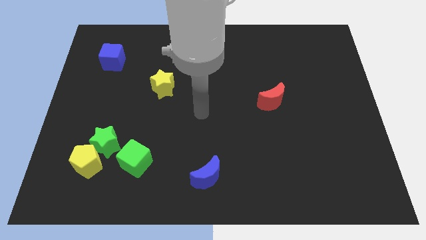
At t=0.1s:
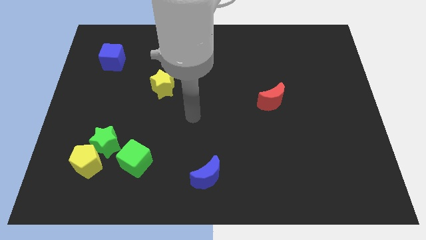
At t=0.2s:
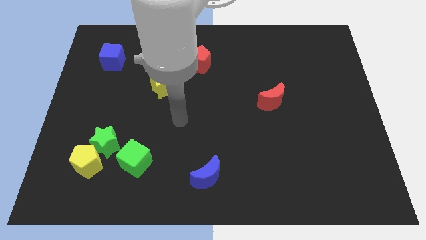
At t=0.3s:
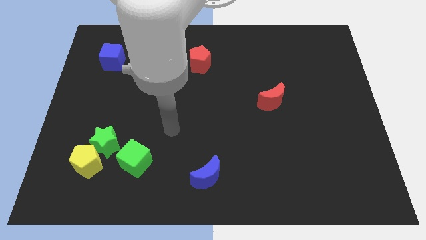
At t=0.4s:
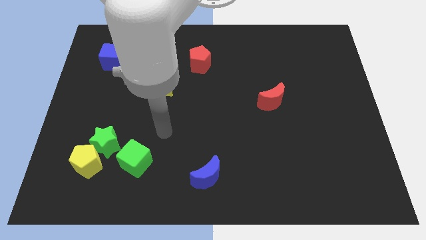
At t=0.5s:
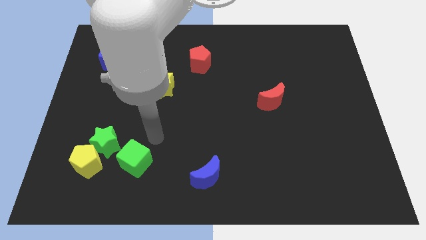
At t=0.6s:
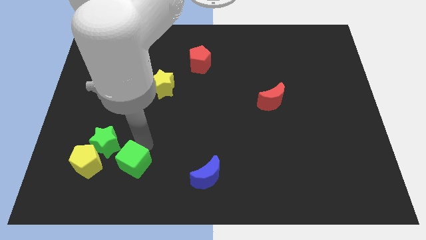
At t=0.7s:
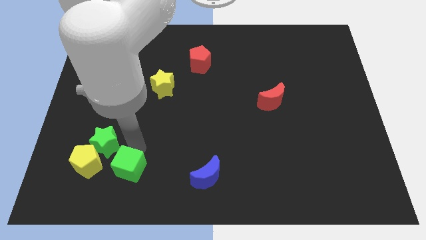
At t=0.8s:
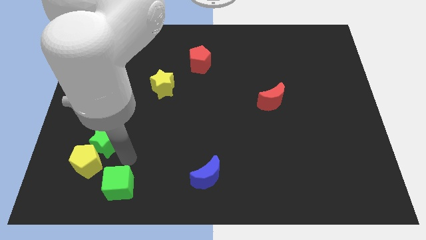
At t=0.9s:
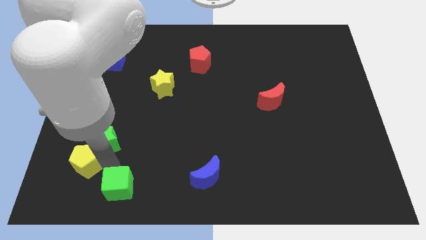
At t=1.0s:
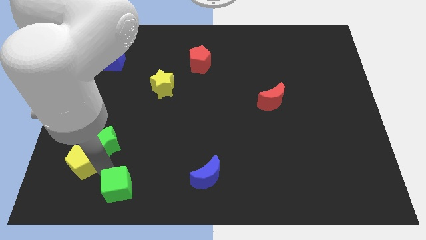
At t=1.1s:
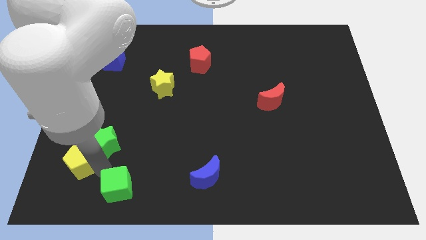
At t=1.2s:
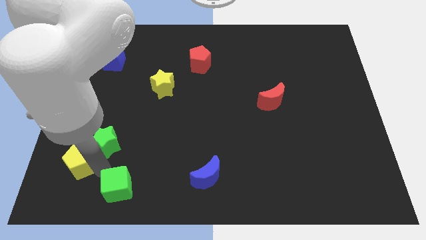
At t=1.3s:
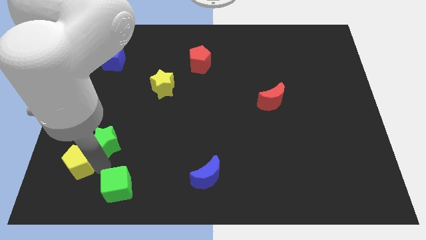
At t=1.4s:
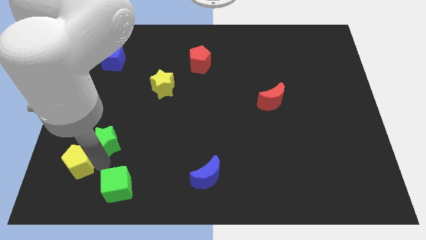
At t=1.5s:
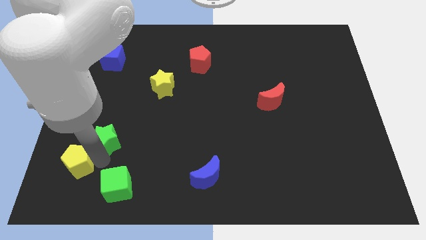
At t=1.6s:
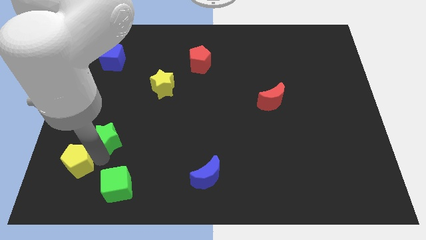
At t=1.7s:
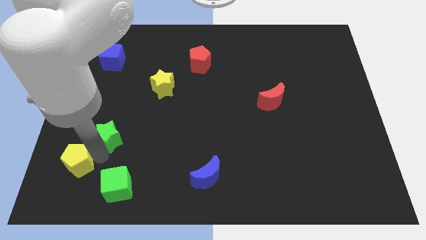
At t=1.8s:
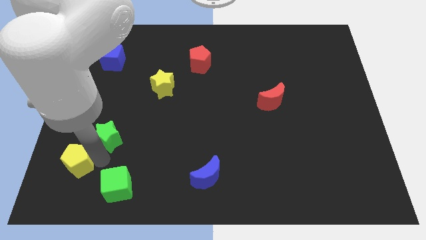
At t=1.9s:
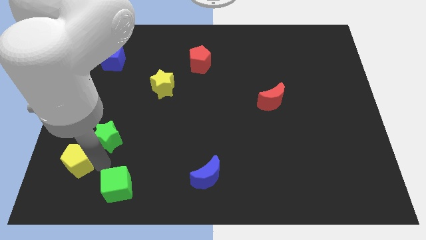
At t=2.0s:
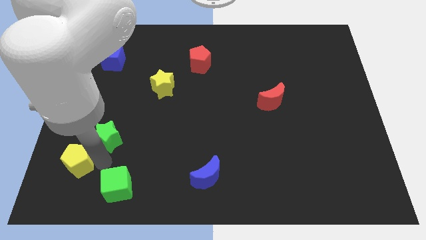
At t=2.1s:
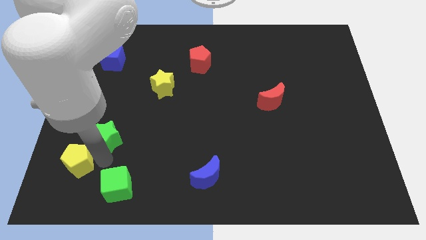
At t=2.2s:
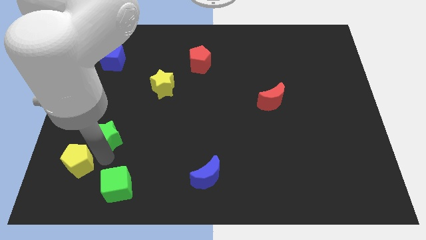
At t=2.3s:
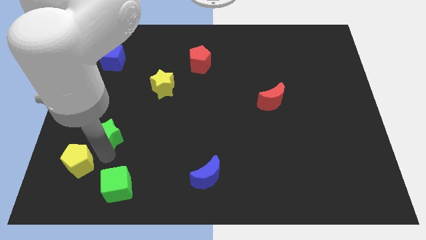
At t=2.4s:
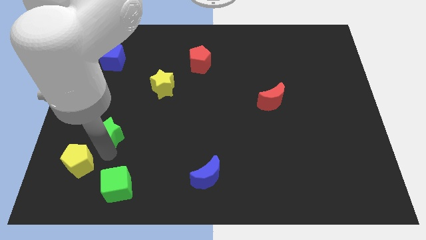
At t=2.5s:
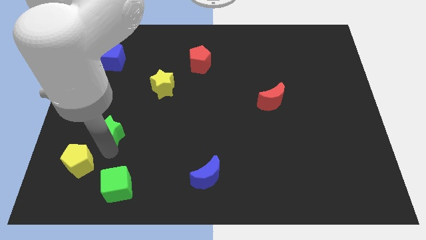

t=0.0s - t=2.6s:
pull the green star apart from the yellow pentagon and green cube

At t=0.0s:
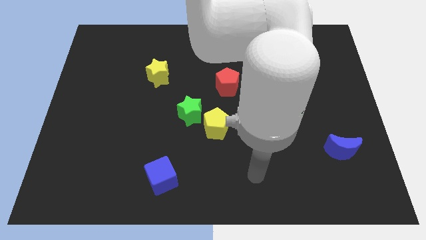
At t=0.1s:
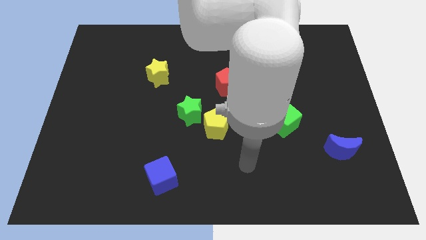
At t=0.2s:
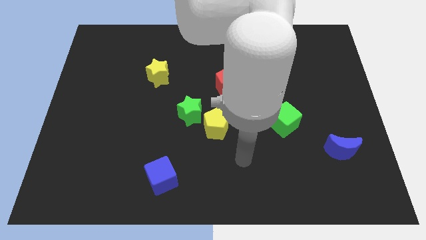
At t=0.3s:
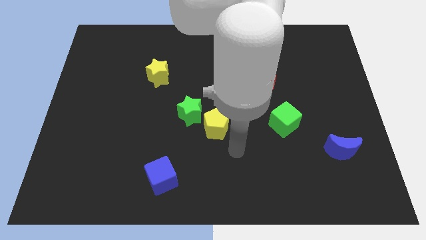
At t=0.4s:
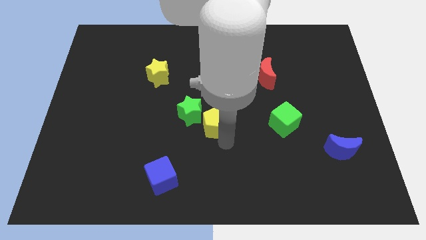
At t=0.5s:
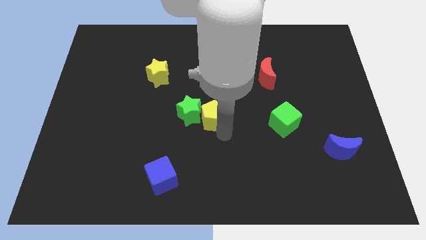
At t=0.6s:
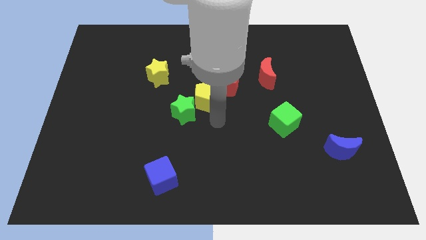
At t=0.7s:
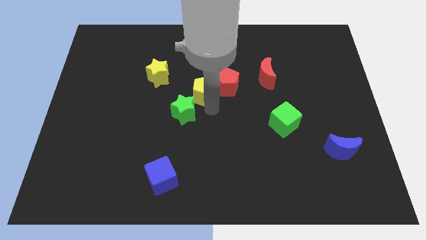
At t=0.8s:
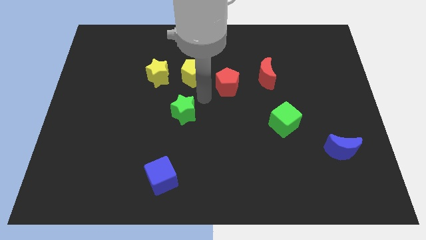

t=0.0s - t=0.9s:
move the green star away from the yellow pentagon

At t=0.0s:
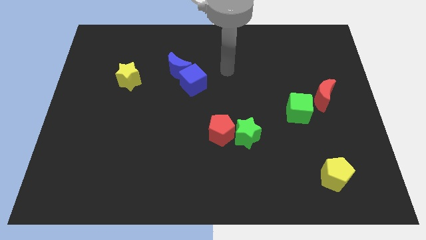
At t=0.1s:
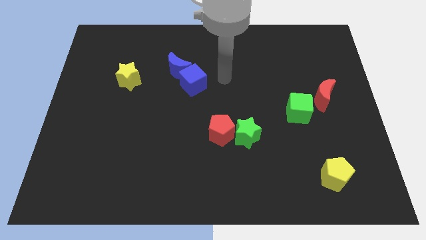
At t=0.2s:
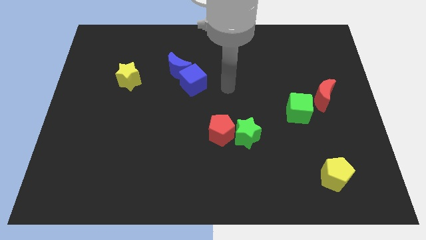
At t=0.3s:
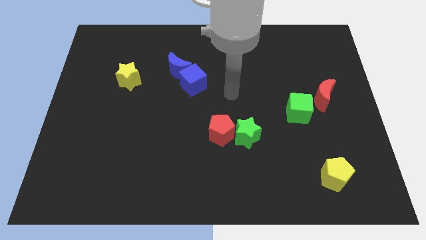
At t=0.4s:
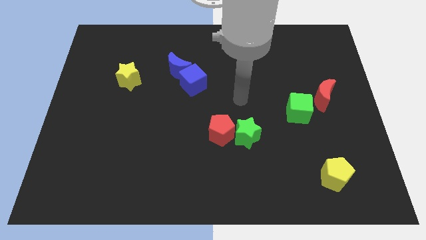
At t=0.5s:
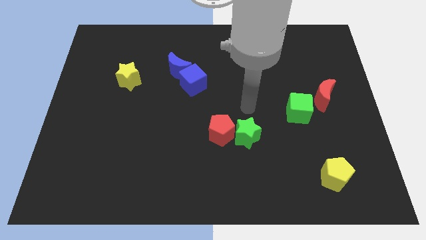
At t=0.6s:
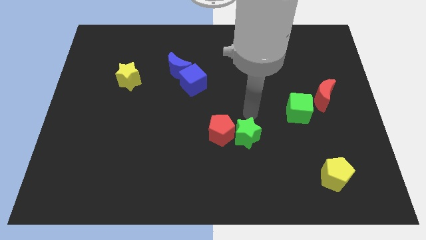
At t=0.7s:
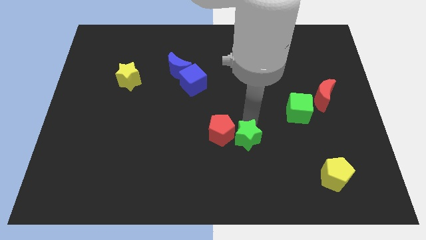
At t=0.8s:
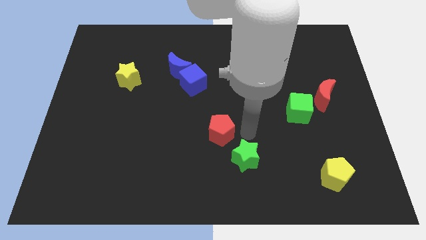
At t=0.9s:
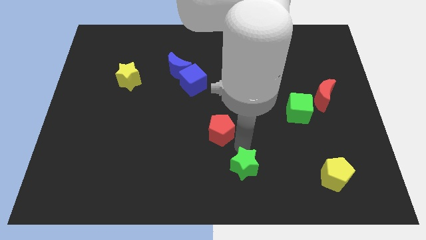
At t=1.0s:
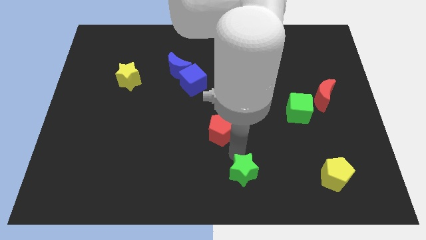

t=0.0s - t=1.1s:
move the red pentagon away from the green star

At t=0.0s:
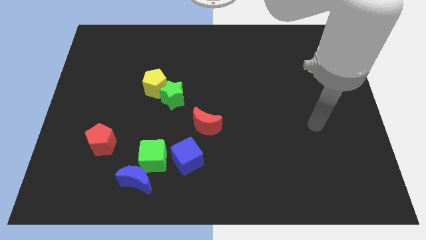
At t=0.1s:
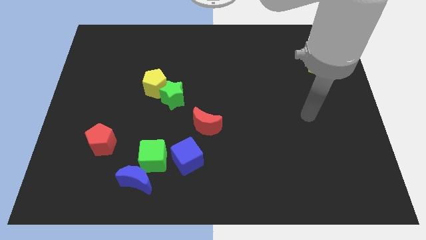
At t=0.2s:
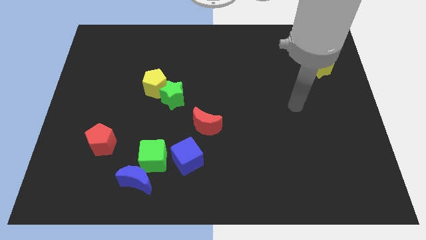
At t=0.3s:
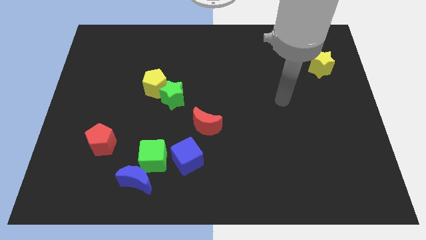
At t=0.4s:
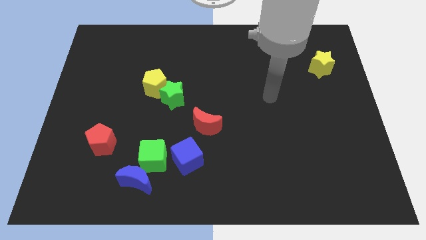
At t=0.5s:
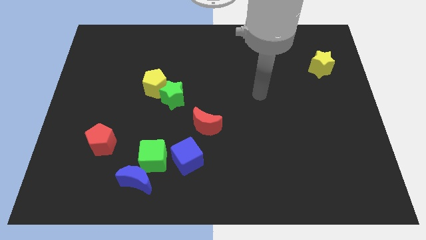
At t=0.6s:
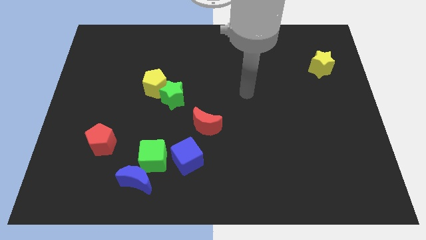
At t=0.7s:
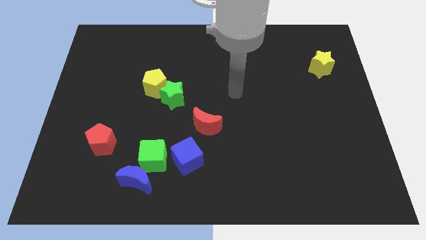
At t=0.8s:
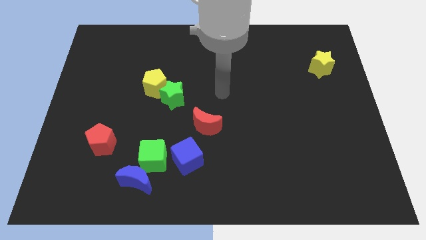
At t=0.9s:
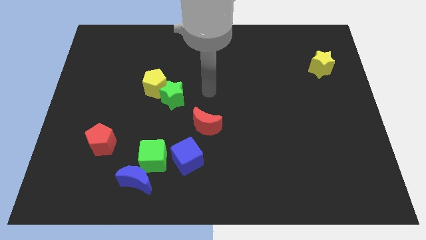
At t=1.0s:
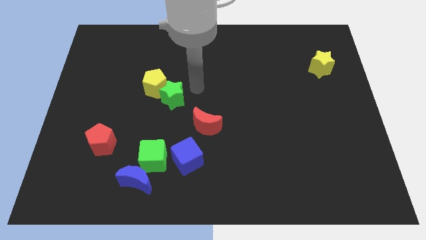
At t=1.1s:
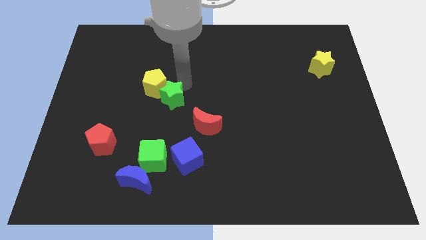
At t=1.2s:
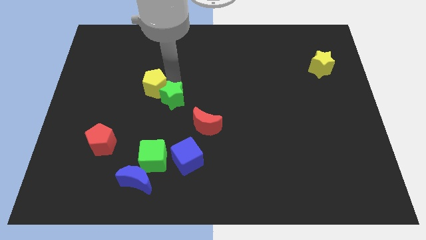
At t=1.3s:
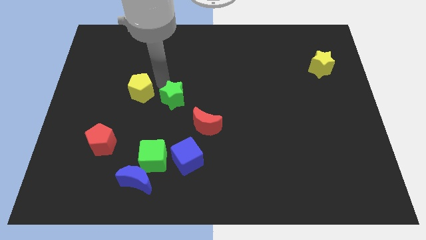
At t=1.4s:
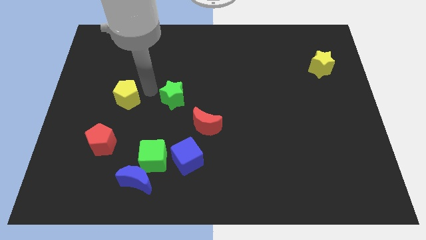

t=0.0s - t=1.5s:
separate the green star from the yellow pentagon

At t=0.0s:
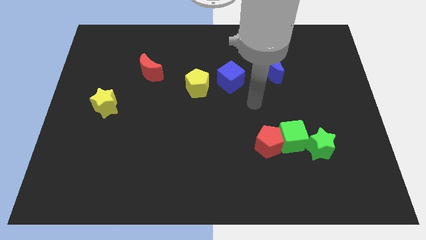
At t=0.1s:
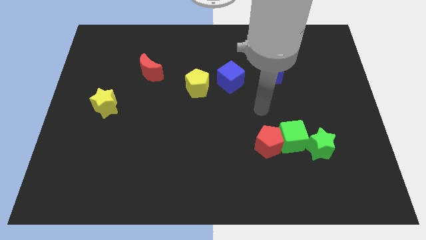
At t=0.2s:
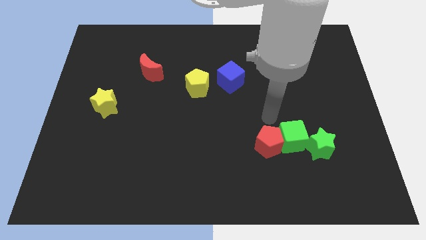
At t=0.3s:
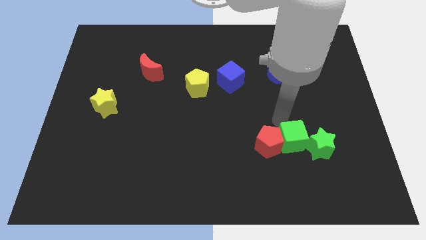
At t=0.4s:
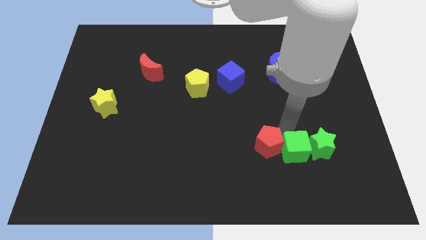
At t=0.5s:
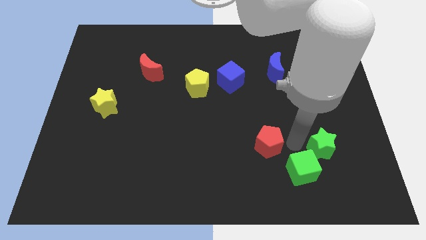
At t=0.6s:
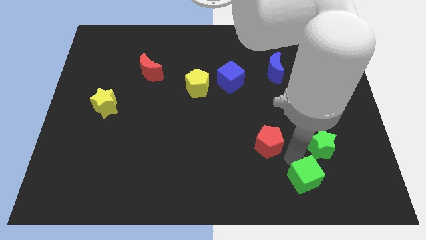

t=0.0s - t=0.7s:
move the red pentagon away from the green cube

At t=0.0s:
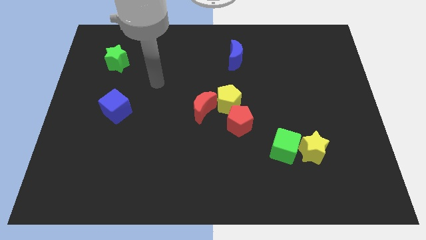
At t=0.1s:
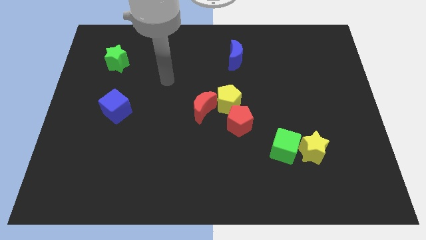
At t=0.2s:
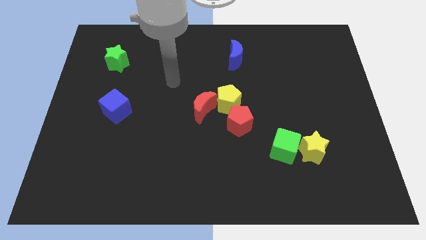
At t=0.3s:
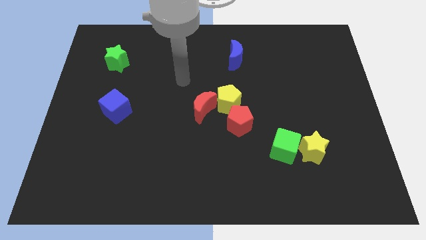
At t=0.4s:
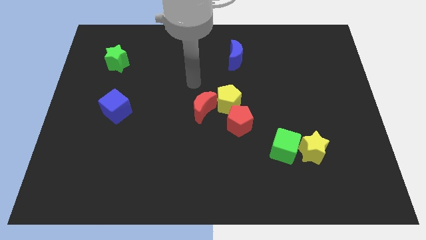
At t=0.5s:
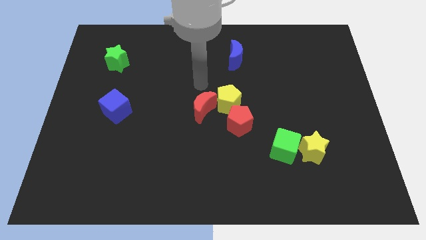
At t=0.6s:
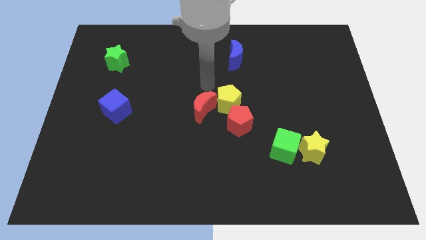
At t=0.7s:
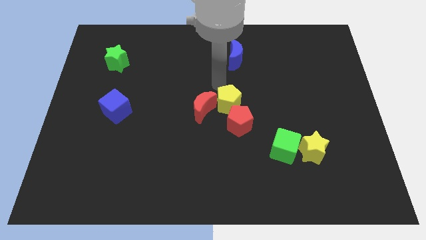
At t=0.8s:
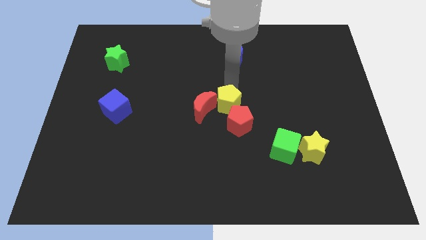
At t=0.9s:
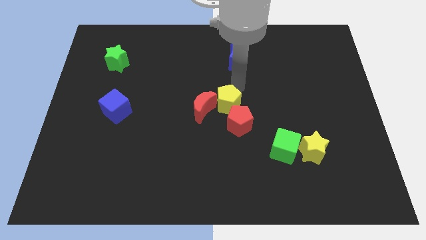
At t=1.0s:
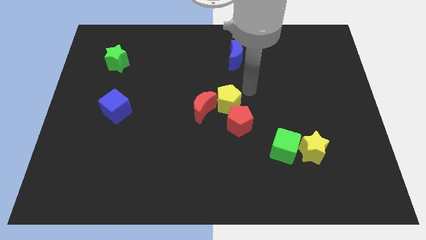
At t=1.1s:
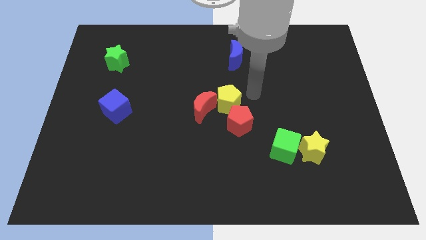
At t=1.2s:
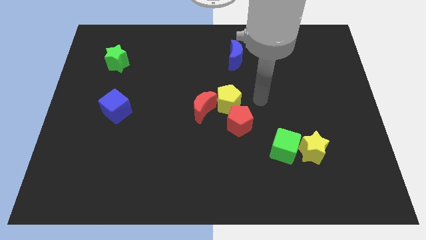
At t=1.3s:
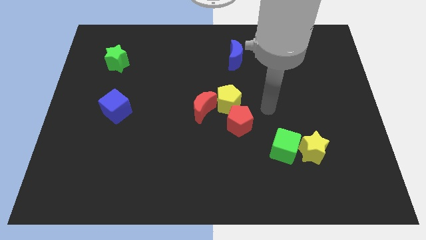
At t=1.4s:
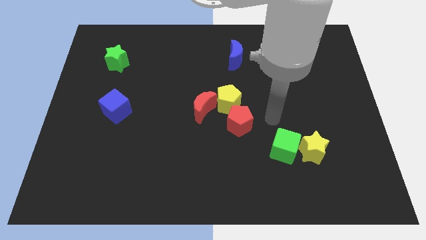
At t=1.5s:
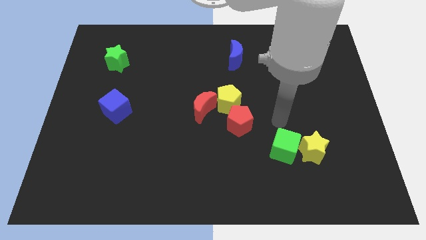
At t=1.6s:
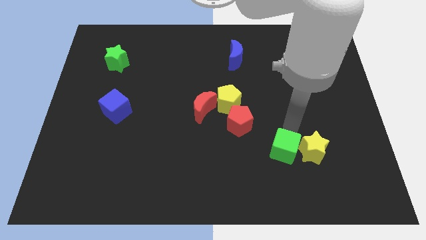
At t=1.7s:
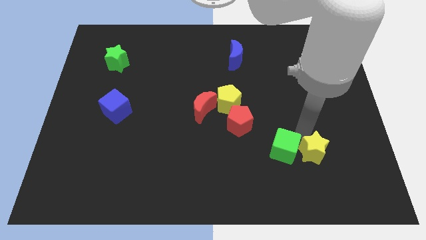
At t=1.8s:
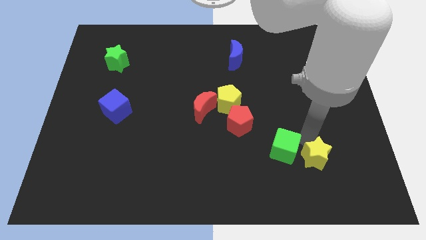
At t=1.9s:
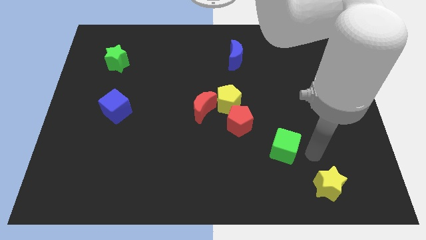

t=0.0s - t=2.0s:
separate the green cube from the yellow star

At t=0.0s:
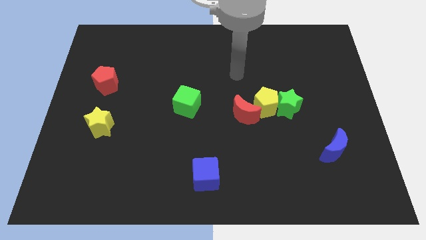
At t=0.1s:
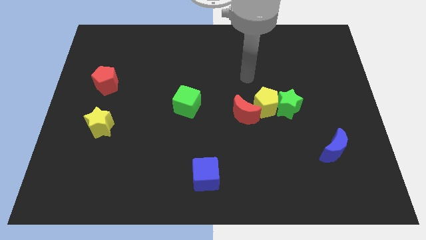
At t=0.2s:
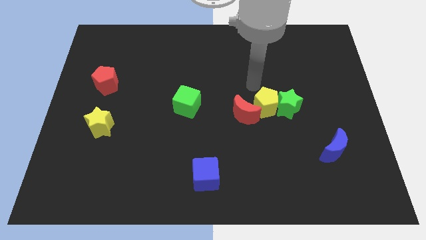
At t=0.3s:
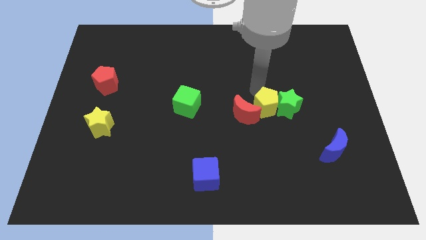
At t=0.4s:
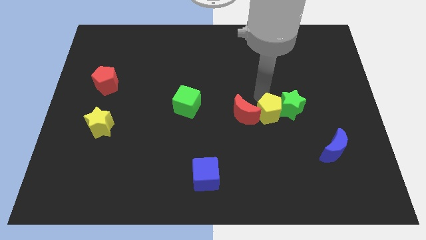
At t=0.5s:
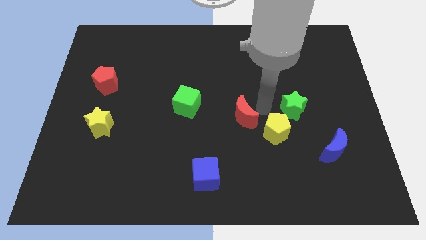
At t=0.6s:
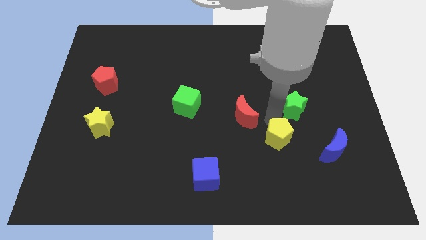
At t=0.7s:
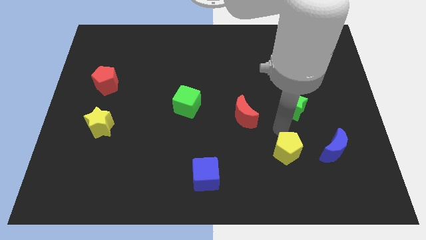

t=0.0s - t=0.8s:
pull the green star apart from the yellow pentagon
